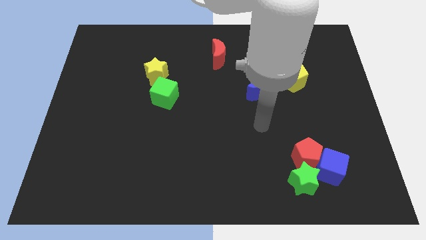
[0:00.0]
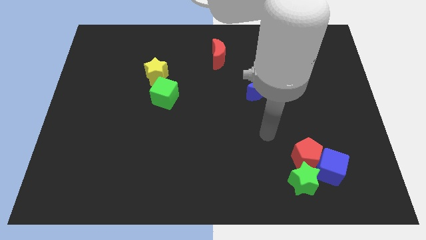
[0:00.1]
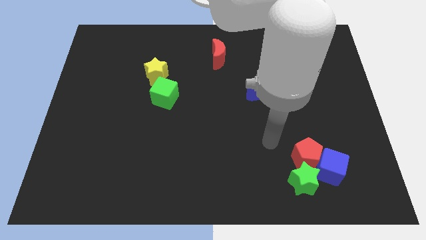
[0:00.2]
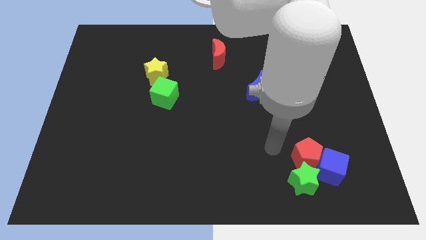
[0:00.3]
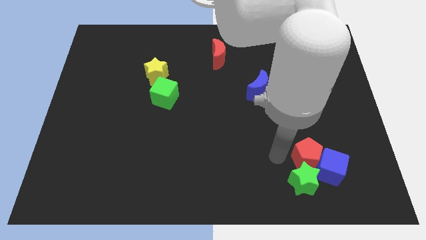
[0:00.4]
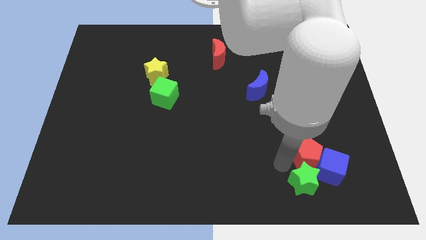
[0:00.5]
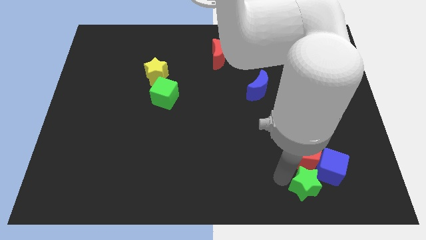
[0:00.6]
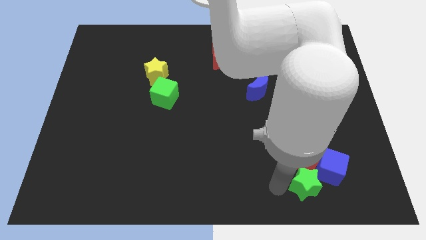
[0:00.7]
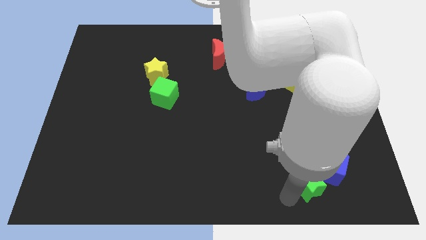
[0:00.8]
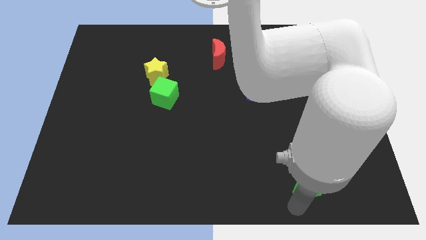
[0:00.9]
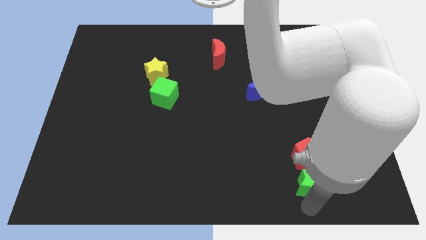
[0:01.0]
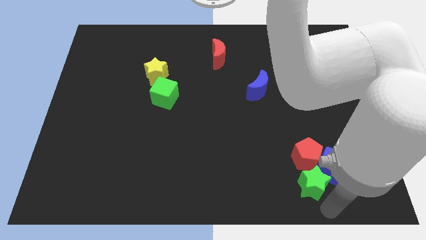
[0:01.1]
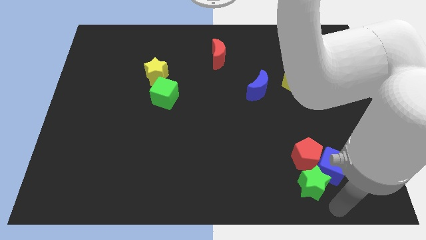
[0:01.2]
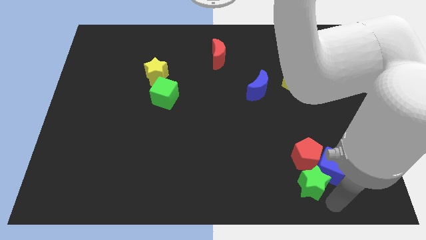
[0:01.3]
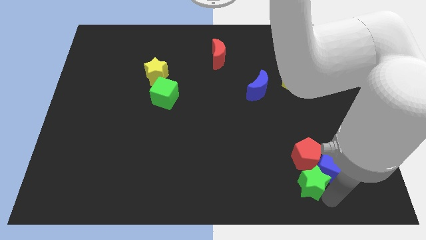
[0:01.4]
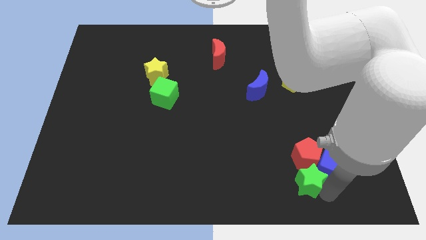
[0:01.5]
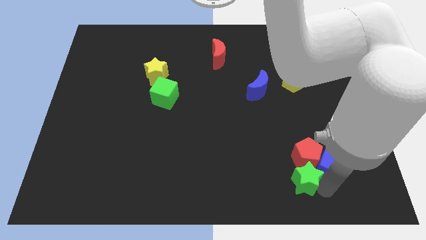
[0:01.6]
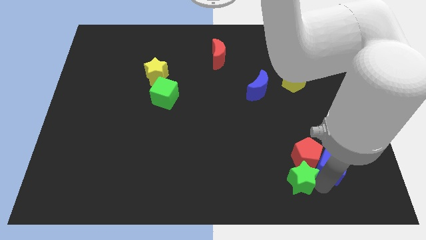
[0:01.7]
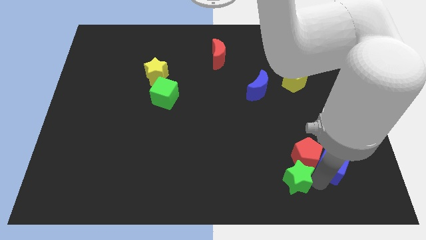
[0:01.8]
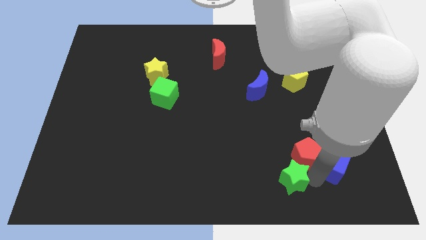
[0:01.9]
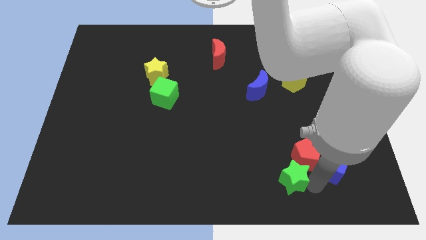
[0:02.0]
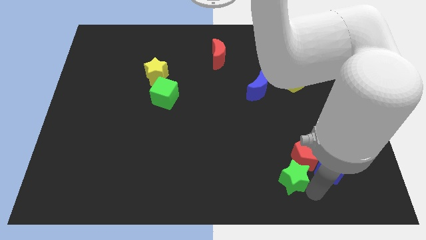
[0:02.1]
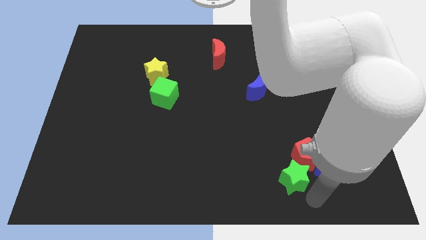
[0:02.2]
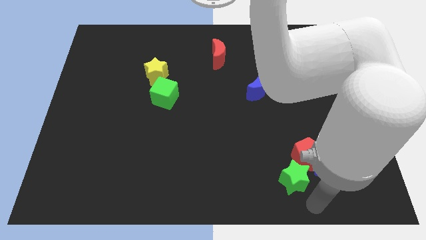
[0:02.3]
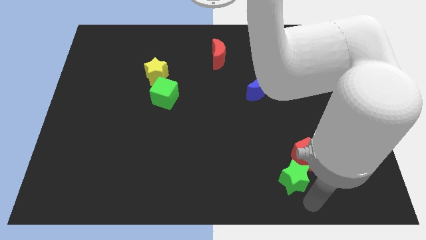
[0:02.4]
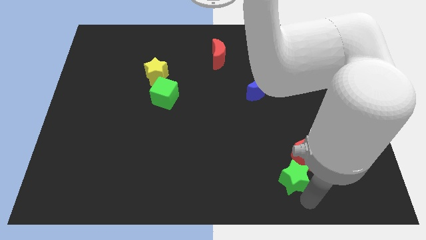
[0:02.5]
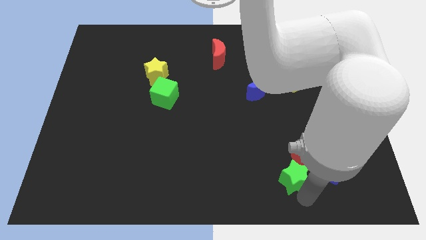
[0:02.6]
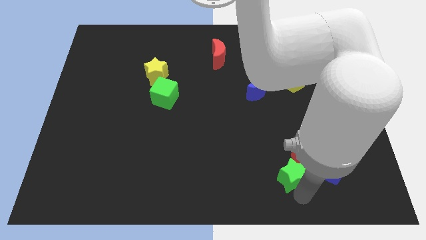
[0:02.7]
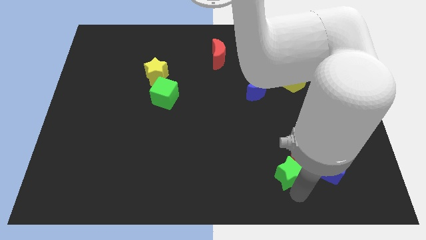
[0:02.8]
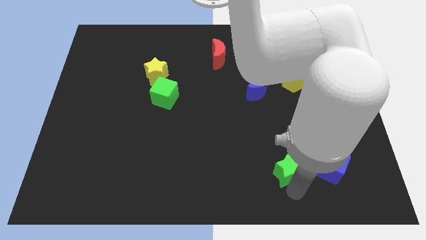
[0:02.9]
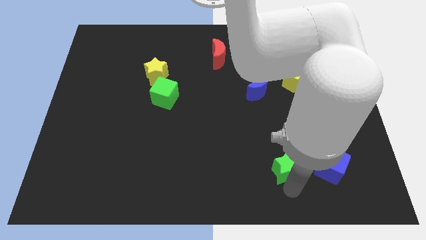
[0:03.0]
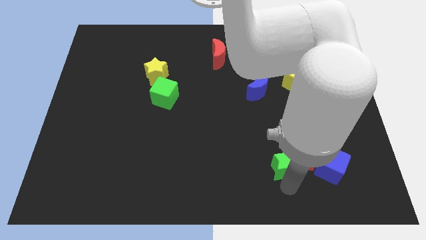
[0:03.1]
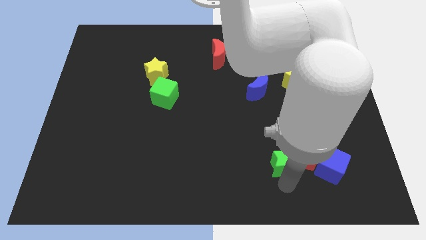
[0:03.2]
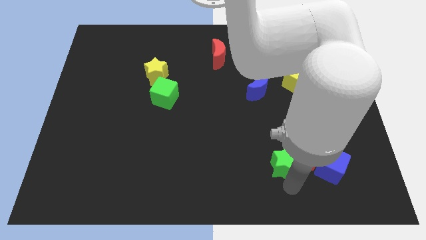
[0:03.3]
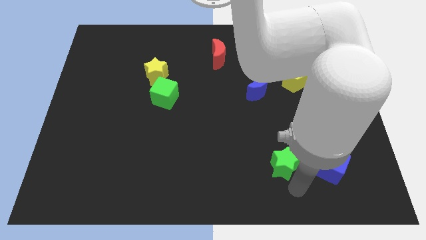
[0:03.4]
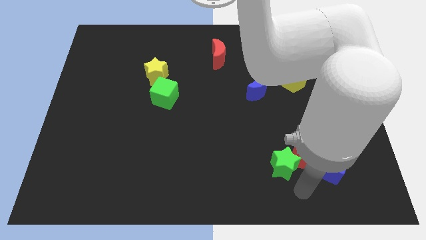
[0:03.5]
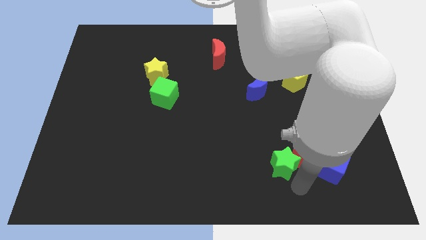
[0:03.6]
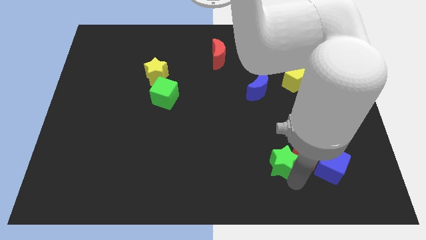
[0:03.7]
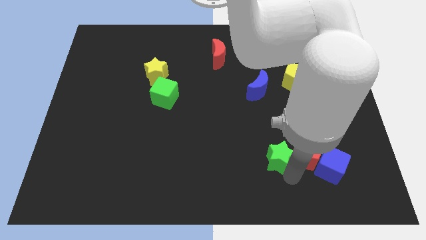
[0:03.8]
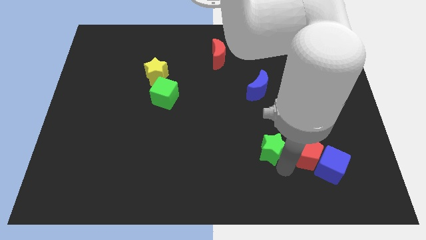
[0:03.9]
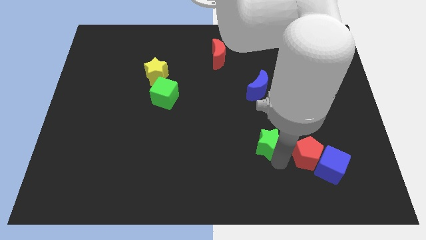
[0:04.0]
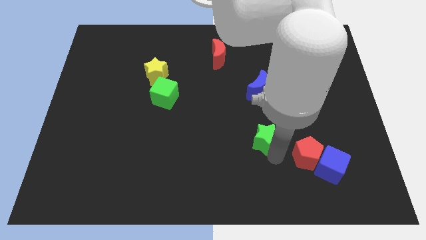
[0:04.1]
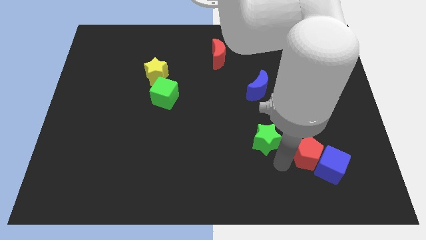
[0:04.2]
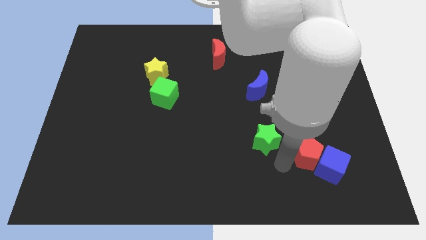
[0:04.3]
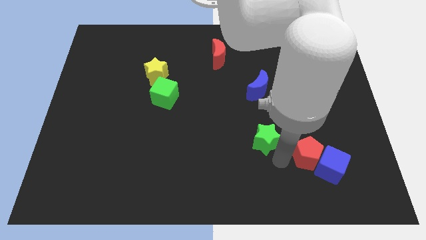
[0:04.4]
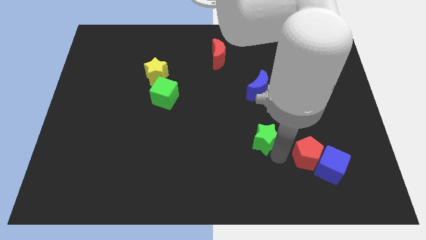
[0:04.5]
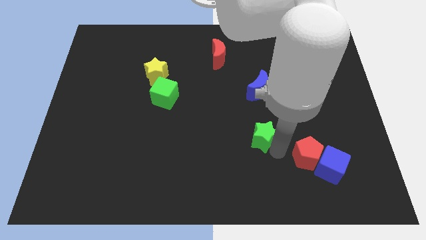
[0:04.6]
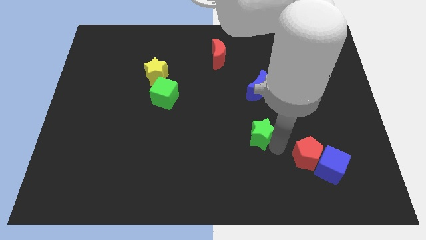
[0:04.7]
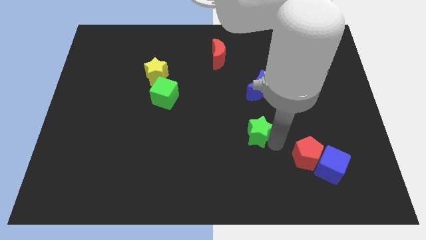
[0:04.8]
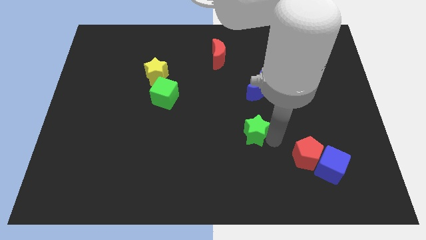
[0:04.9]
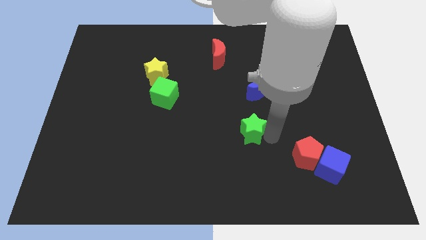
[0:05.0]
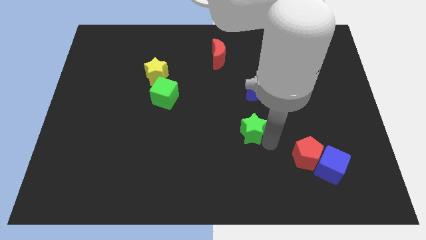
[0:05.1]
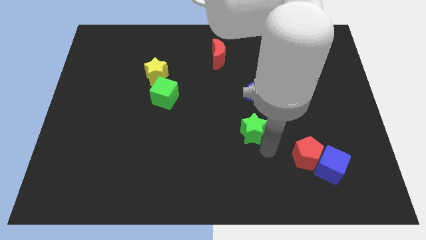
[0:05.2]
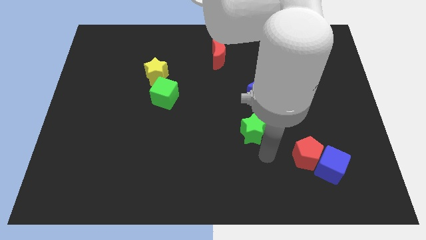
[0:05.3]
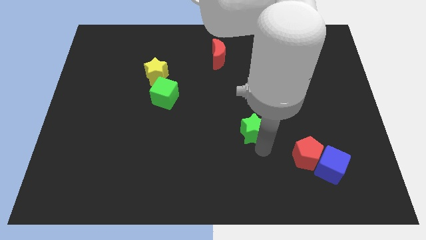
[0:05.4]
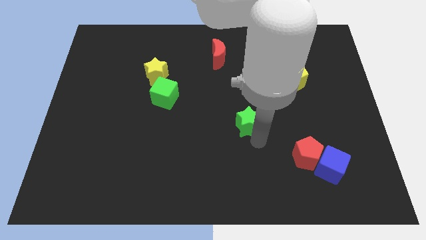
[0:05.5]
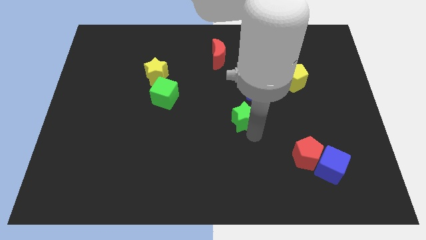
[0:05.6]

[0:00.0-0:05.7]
move the green star diagonally down and to the left of the blue moon

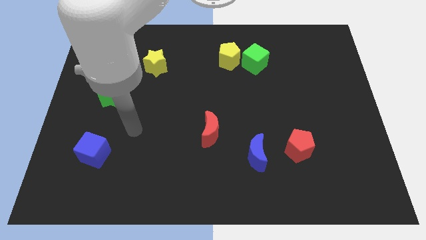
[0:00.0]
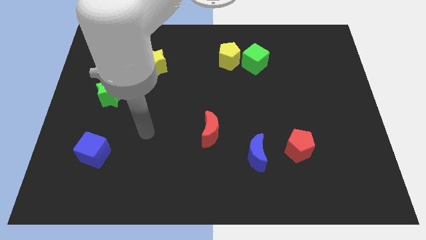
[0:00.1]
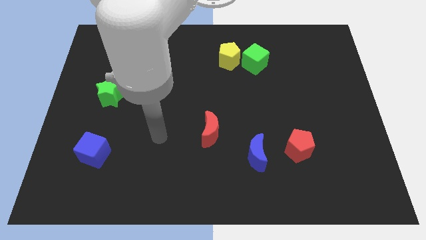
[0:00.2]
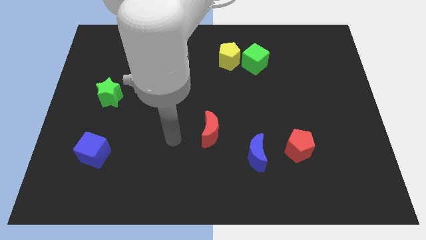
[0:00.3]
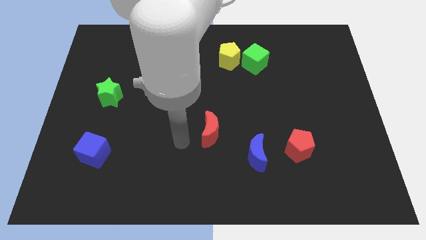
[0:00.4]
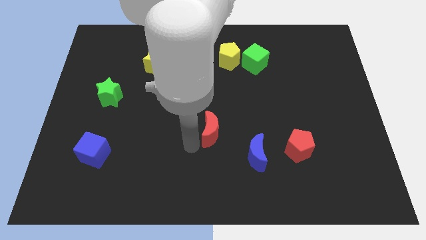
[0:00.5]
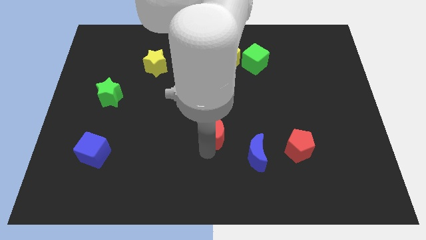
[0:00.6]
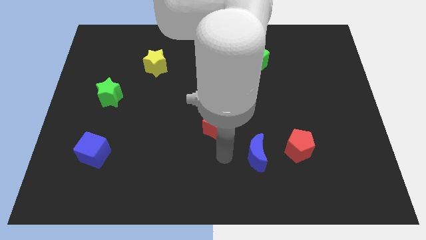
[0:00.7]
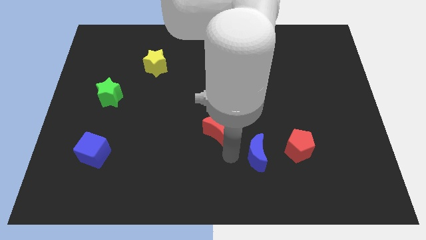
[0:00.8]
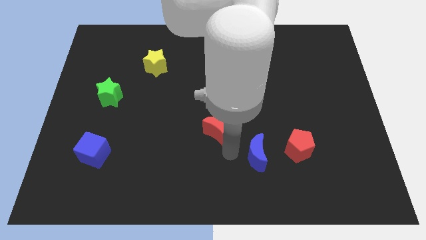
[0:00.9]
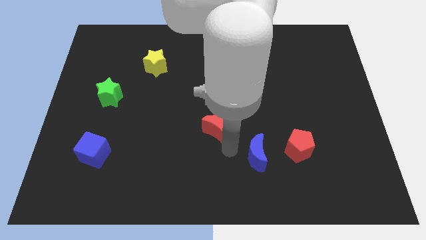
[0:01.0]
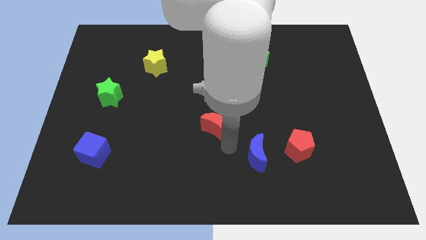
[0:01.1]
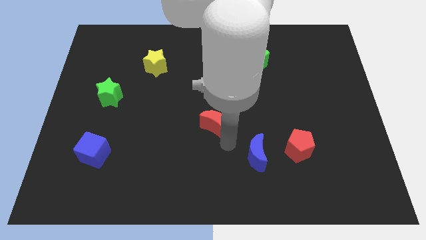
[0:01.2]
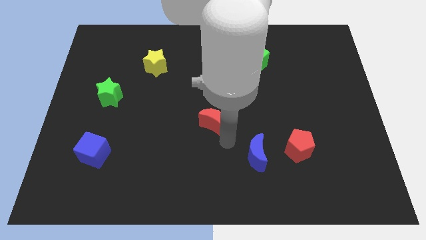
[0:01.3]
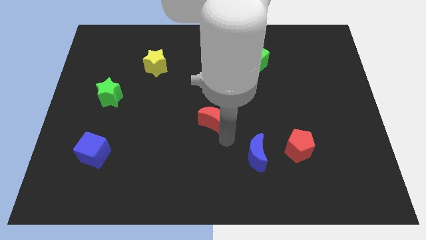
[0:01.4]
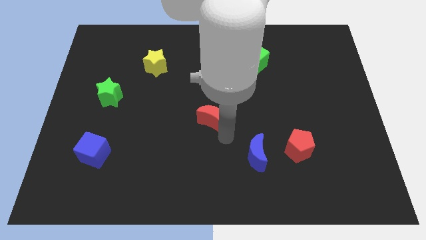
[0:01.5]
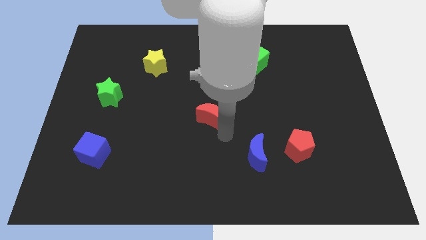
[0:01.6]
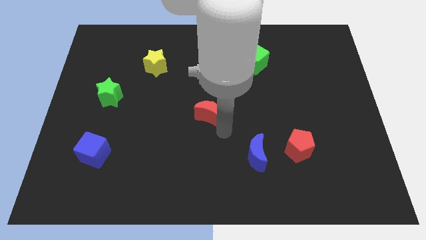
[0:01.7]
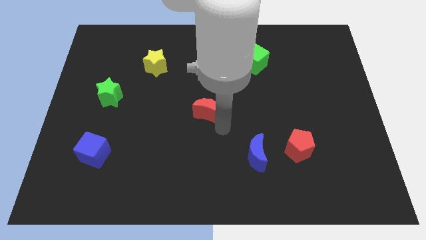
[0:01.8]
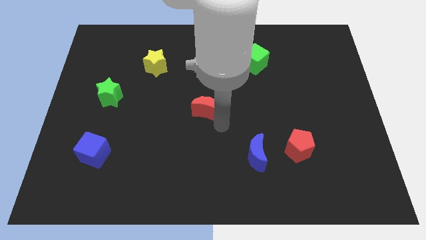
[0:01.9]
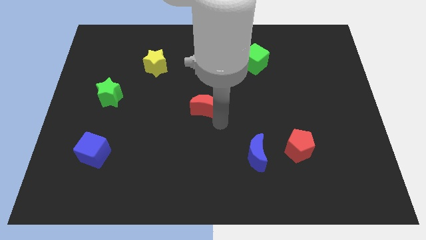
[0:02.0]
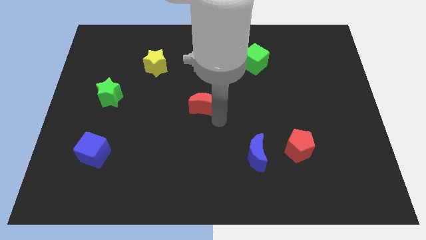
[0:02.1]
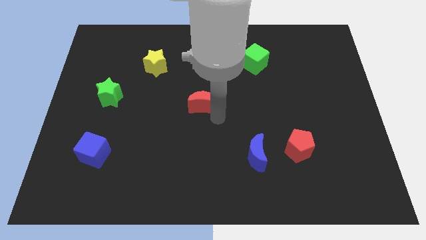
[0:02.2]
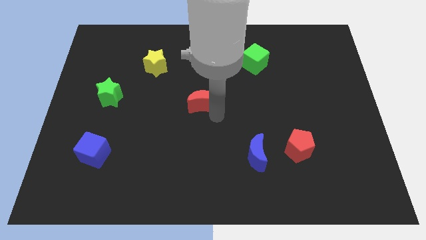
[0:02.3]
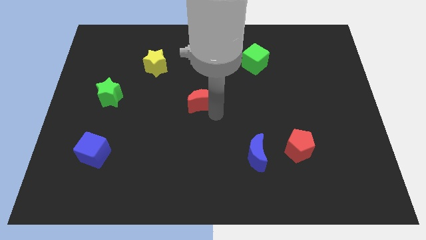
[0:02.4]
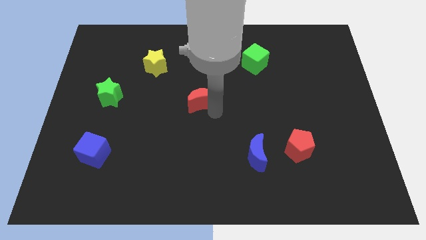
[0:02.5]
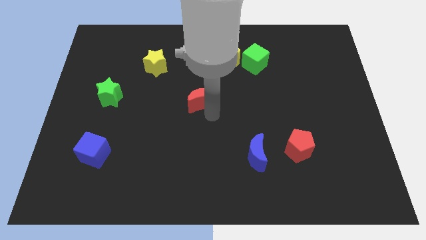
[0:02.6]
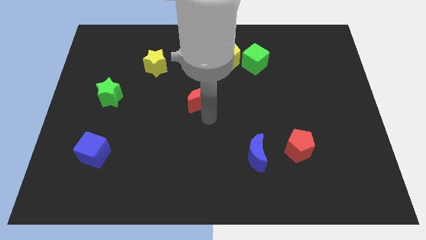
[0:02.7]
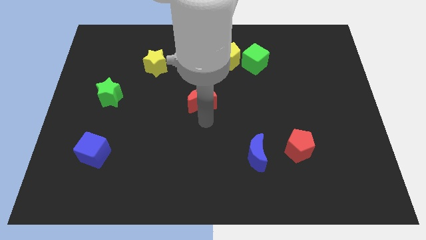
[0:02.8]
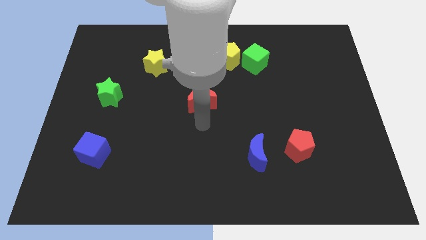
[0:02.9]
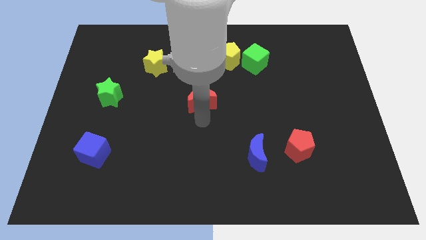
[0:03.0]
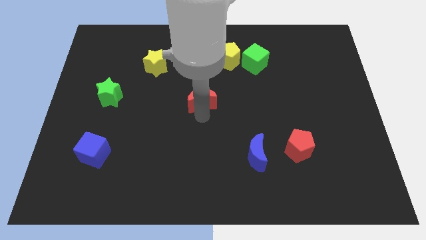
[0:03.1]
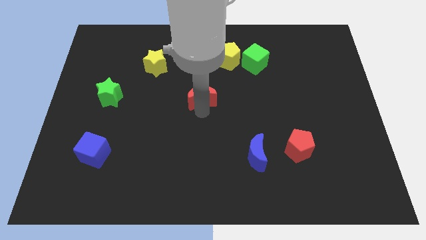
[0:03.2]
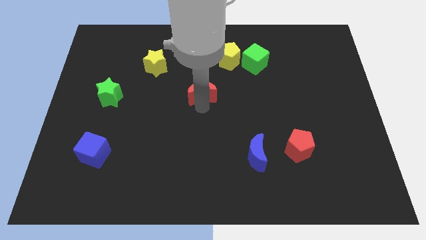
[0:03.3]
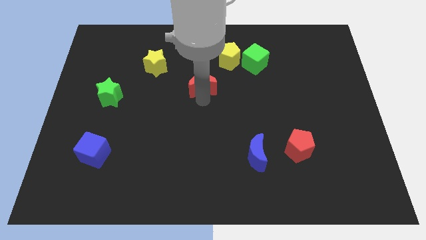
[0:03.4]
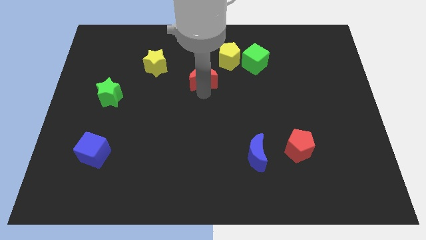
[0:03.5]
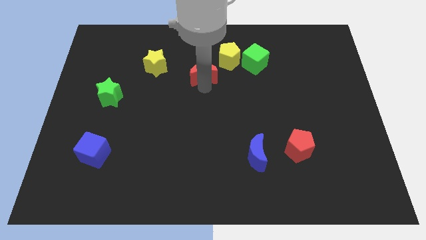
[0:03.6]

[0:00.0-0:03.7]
push the red moon to the right of the yellow star
